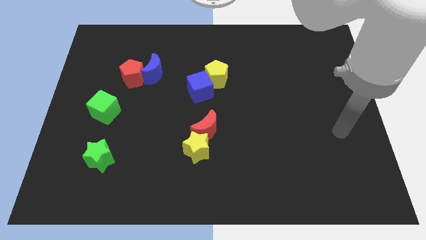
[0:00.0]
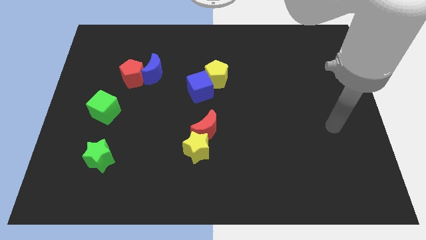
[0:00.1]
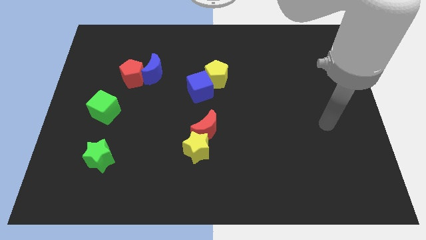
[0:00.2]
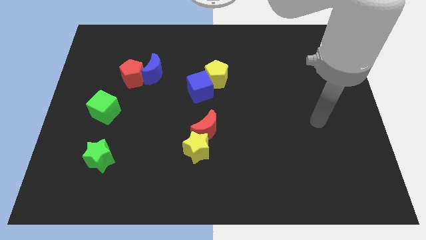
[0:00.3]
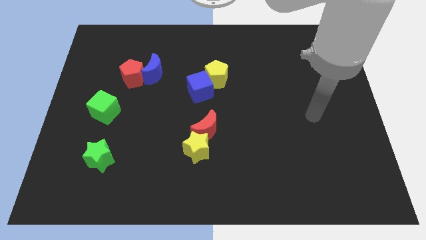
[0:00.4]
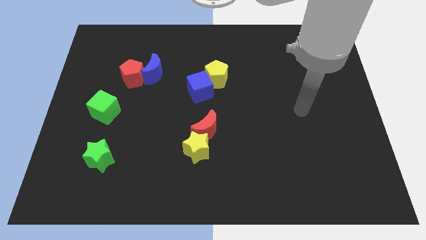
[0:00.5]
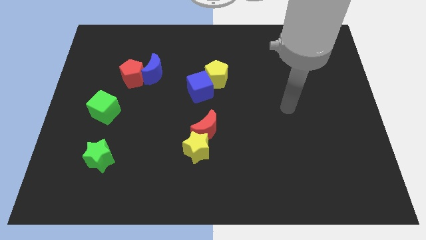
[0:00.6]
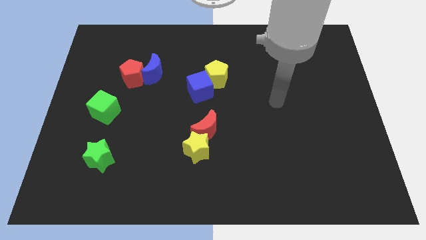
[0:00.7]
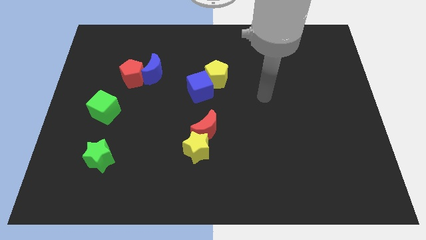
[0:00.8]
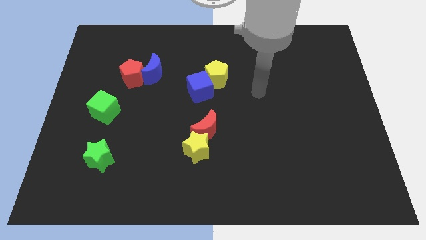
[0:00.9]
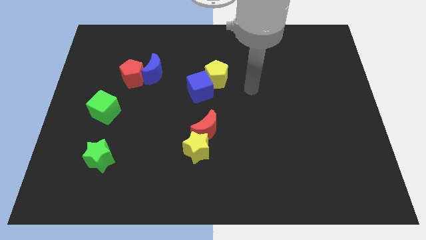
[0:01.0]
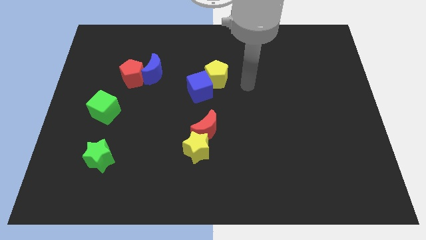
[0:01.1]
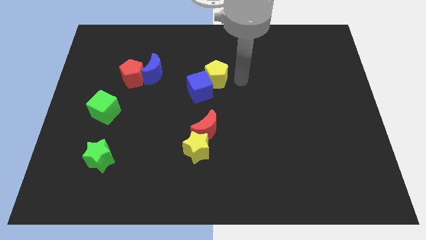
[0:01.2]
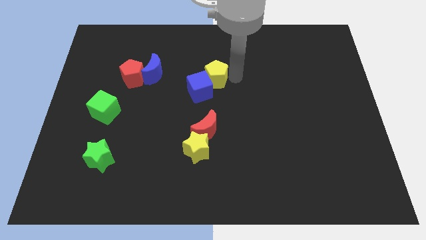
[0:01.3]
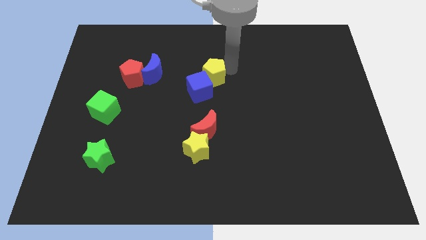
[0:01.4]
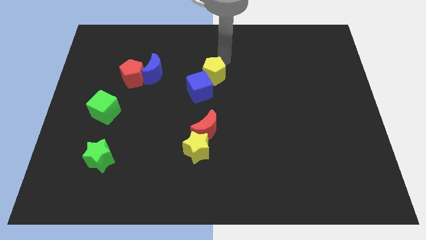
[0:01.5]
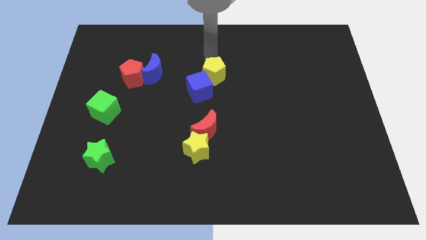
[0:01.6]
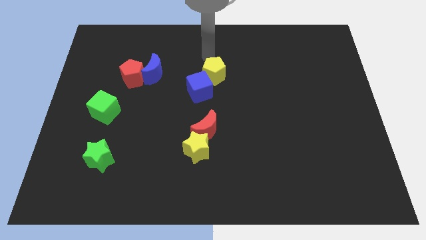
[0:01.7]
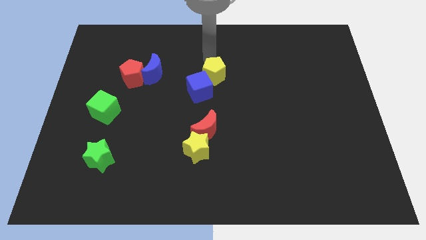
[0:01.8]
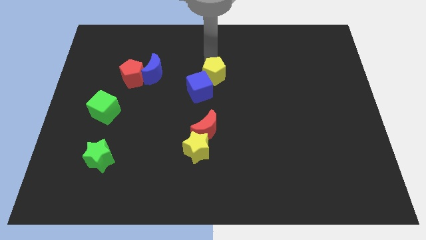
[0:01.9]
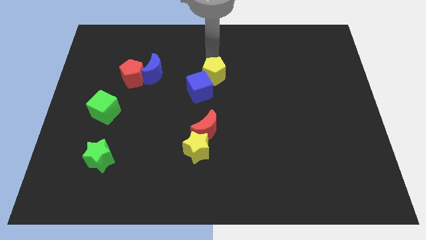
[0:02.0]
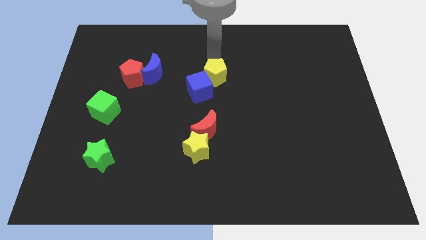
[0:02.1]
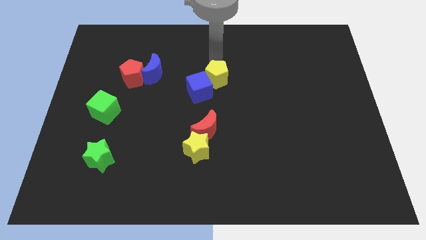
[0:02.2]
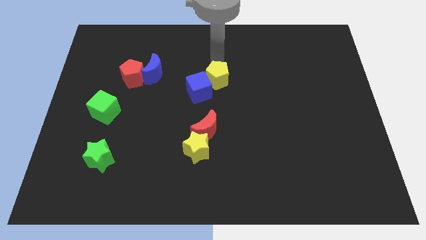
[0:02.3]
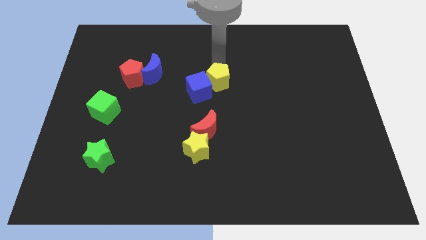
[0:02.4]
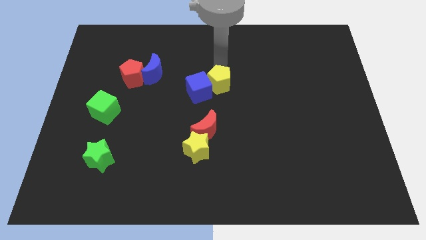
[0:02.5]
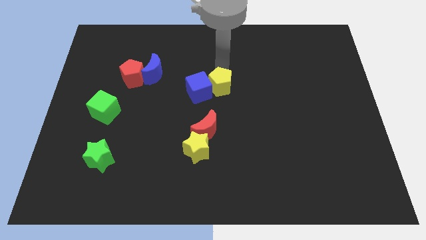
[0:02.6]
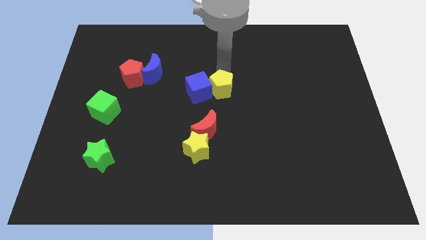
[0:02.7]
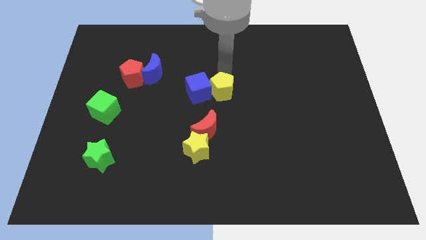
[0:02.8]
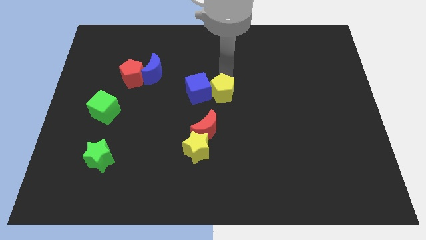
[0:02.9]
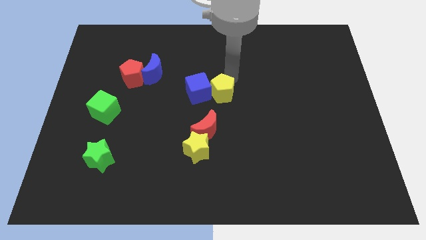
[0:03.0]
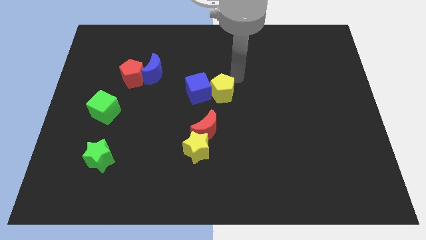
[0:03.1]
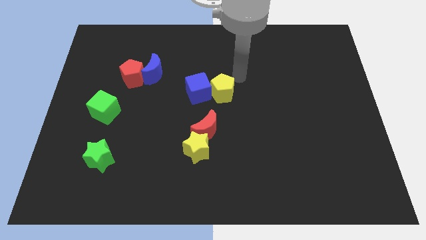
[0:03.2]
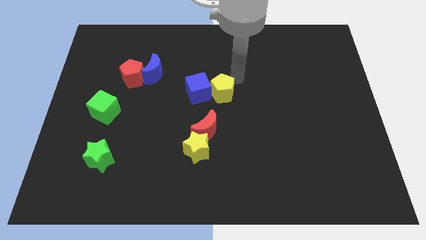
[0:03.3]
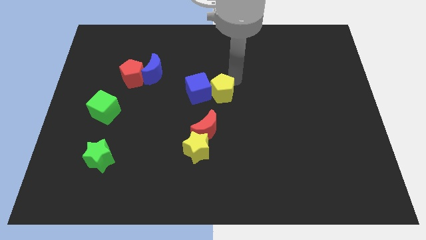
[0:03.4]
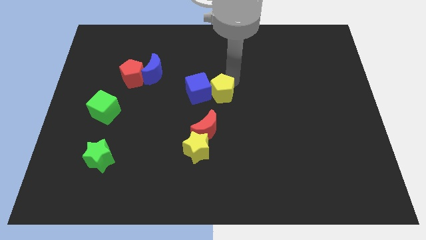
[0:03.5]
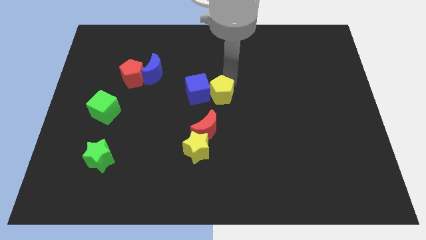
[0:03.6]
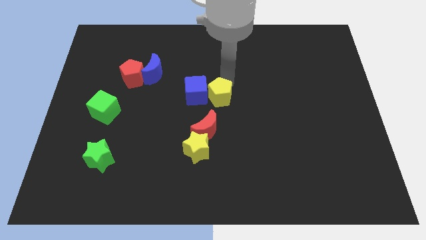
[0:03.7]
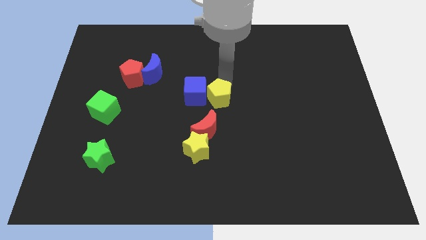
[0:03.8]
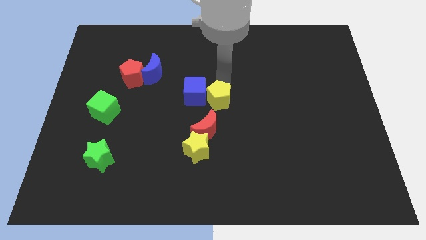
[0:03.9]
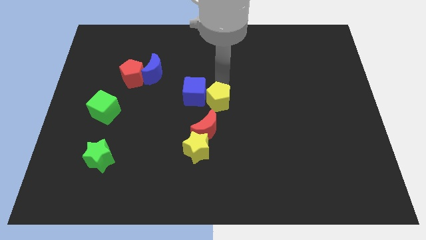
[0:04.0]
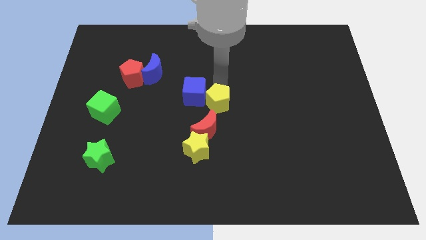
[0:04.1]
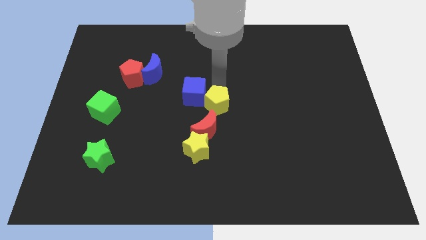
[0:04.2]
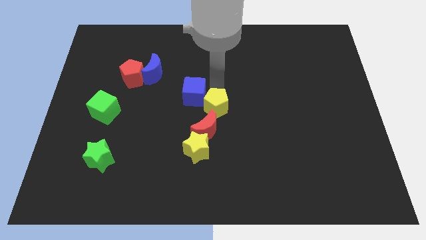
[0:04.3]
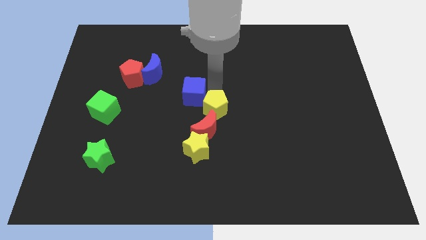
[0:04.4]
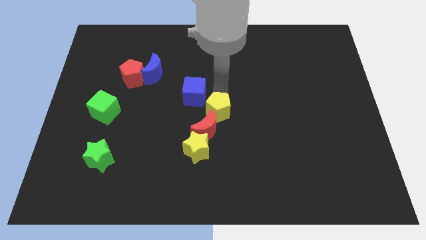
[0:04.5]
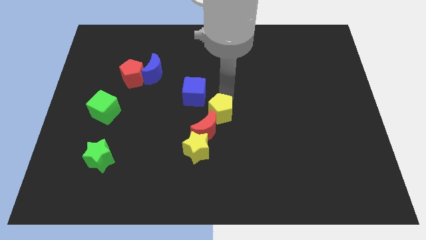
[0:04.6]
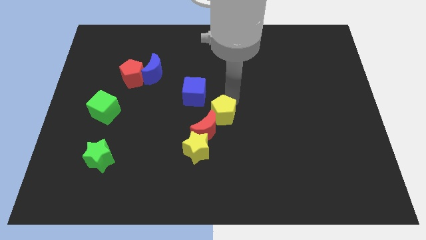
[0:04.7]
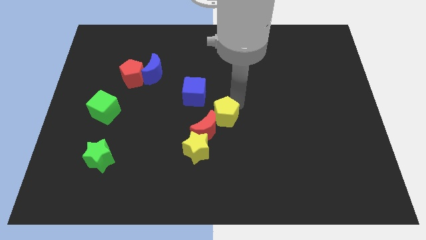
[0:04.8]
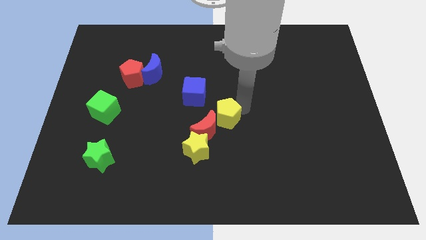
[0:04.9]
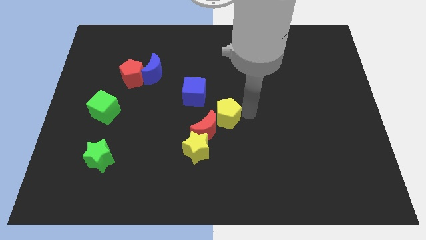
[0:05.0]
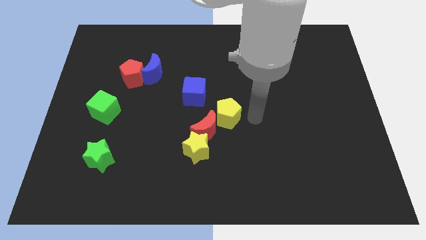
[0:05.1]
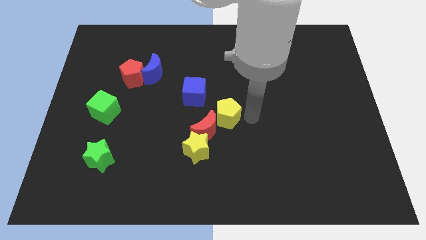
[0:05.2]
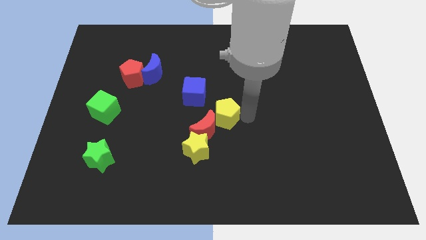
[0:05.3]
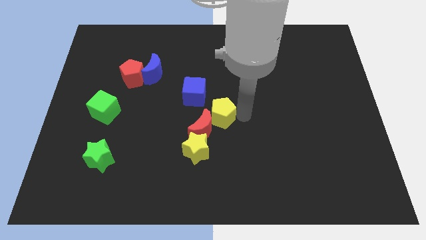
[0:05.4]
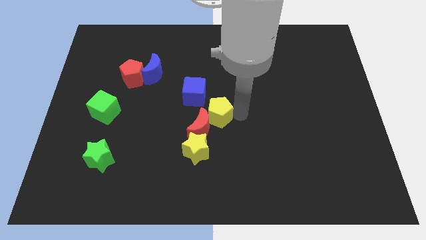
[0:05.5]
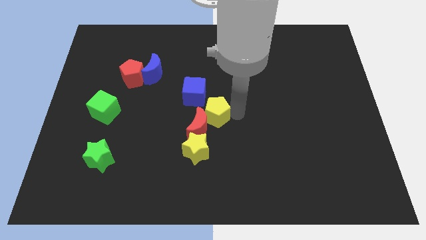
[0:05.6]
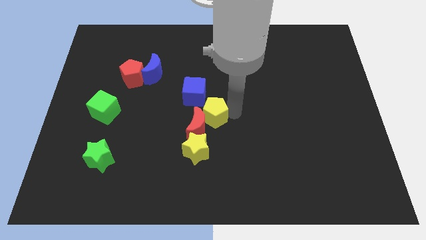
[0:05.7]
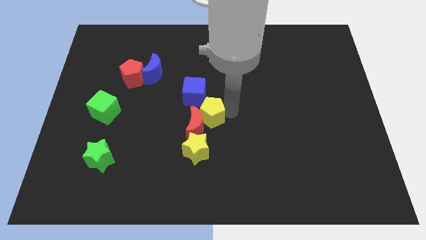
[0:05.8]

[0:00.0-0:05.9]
slightly push the yellow pentagon down and to the left diagonally

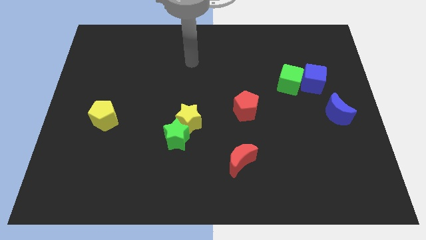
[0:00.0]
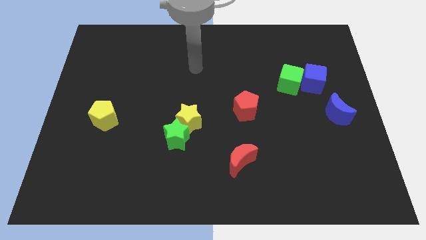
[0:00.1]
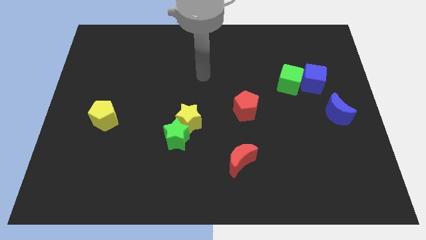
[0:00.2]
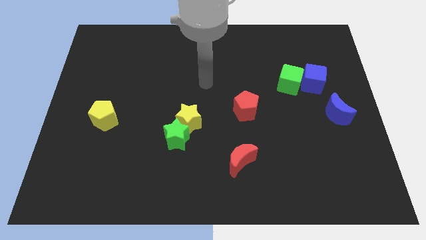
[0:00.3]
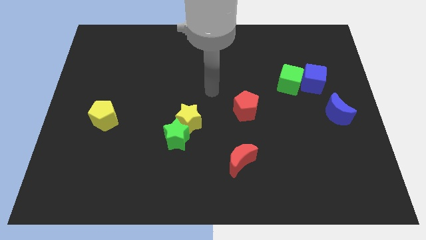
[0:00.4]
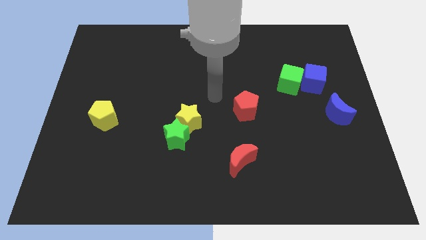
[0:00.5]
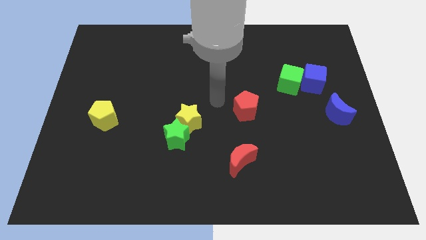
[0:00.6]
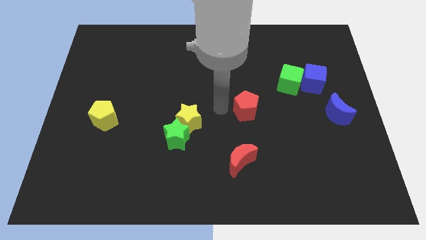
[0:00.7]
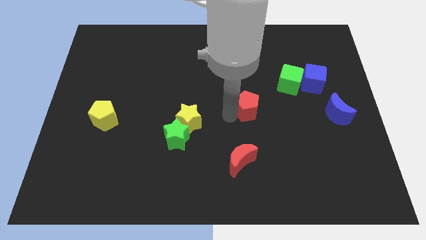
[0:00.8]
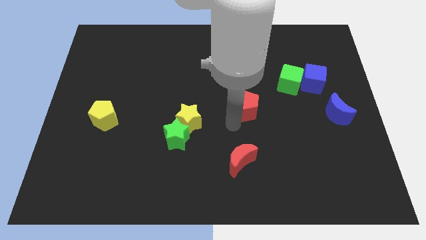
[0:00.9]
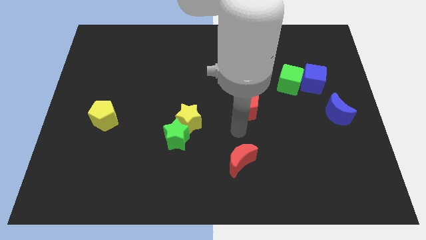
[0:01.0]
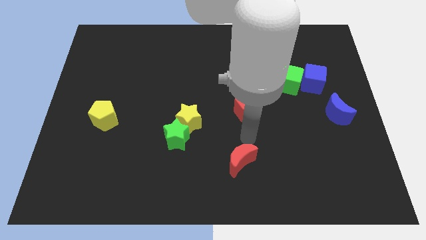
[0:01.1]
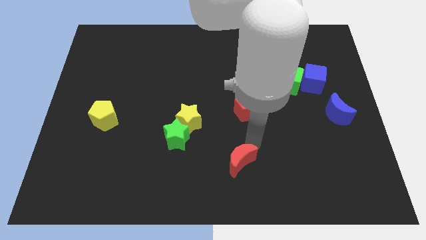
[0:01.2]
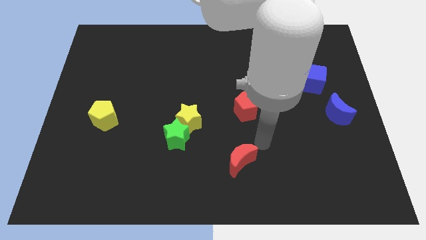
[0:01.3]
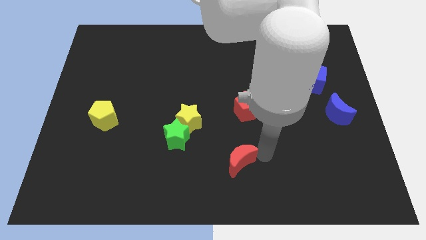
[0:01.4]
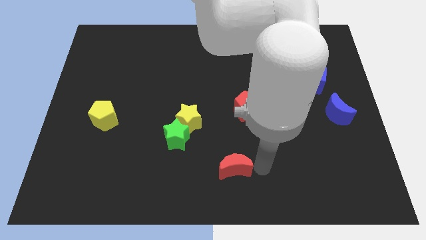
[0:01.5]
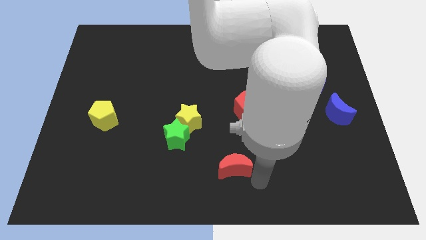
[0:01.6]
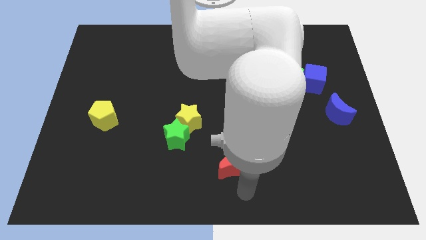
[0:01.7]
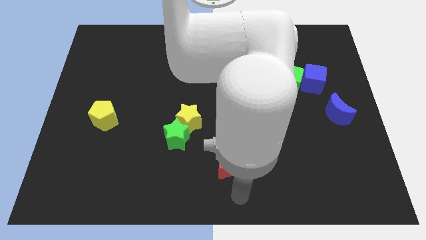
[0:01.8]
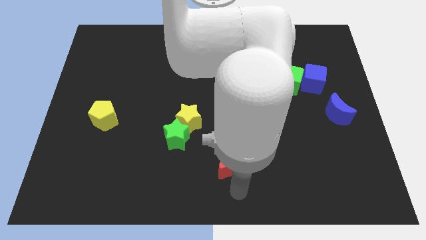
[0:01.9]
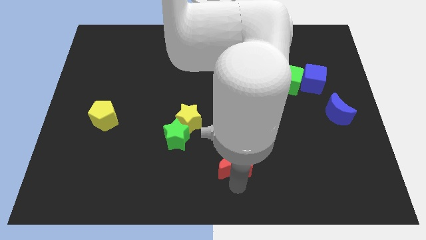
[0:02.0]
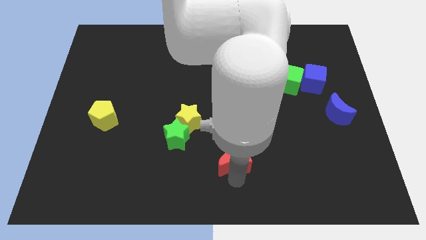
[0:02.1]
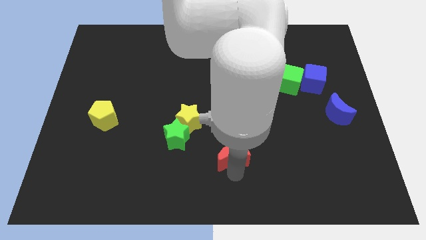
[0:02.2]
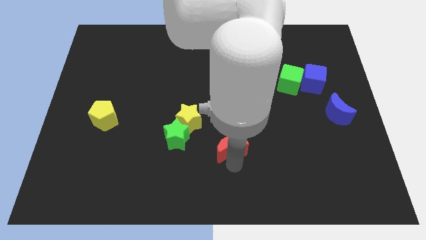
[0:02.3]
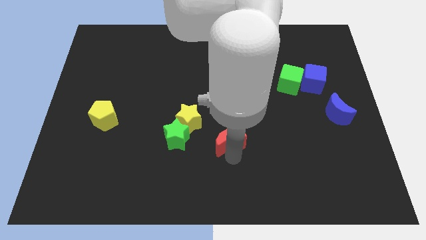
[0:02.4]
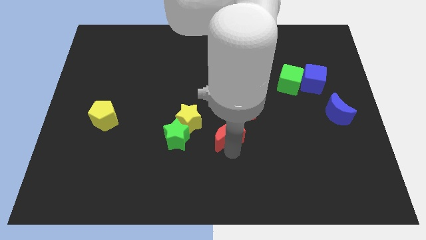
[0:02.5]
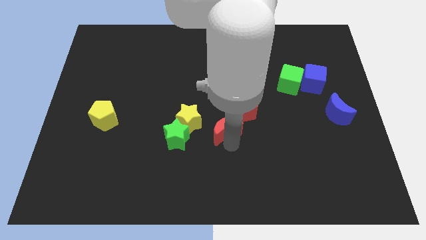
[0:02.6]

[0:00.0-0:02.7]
move the red moon upwards and left a little bit
